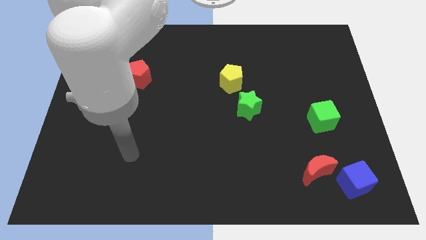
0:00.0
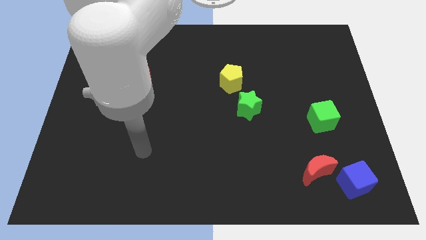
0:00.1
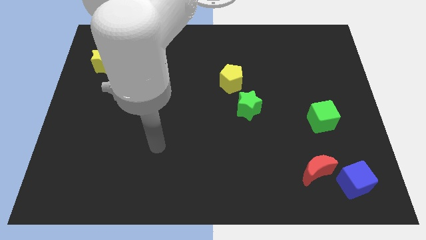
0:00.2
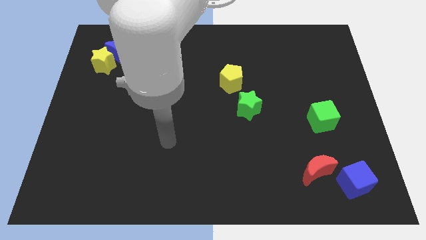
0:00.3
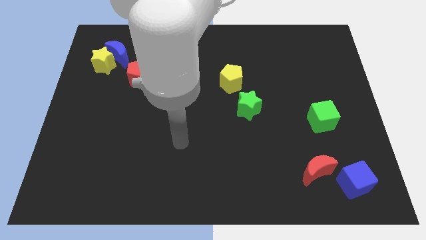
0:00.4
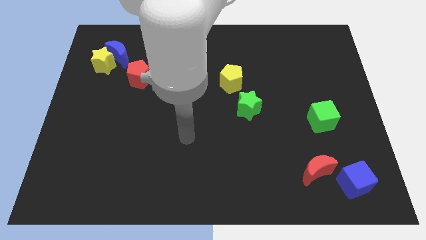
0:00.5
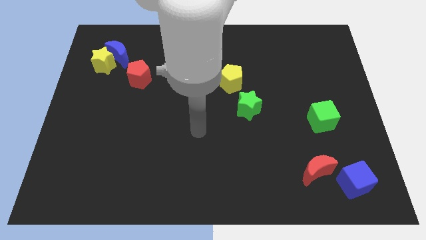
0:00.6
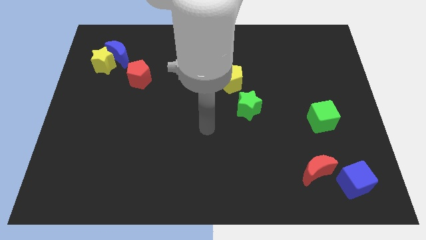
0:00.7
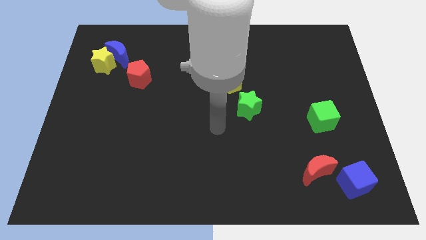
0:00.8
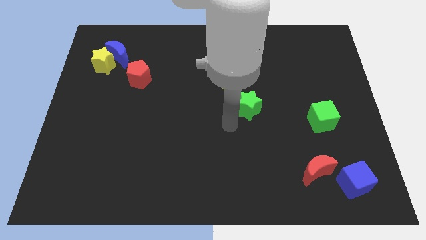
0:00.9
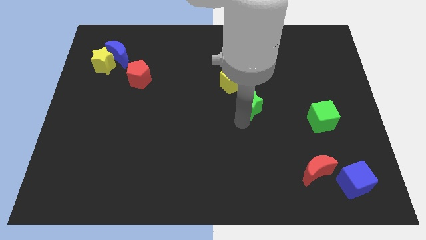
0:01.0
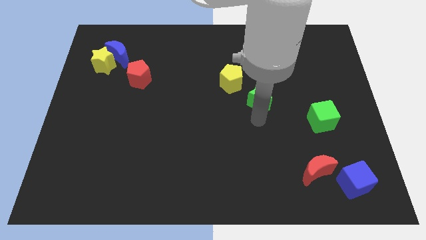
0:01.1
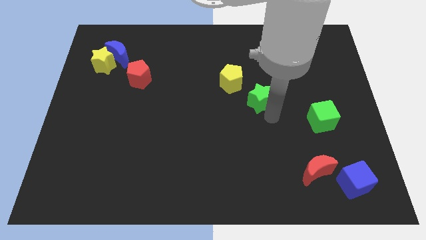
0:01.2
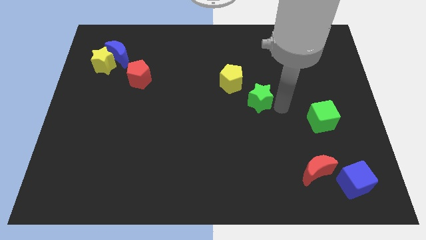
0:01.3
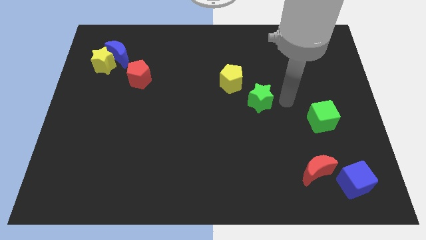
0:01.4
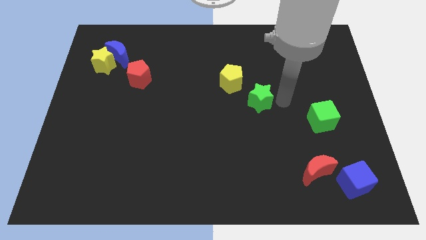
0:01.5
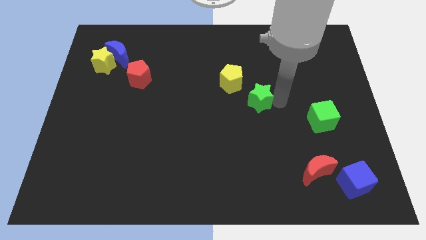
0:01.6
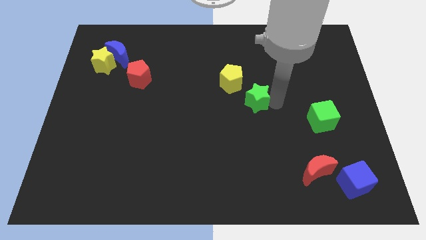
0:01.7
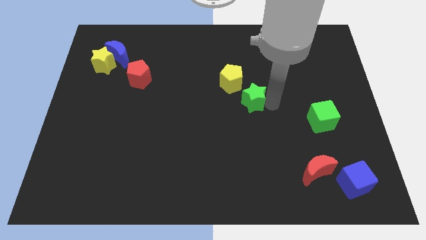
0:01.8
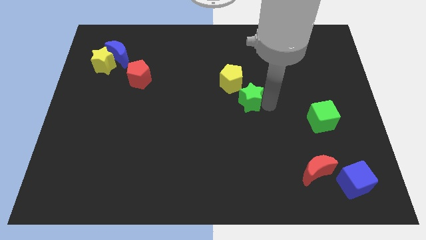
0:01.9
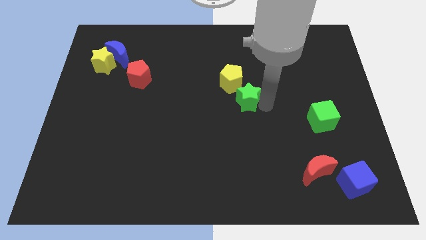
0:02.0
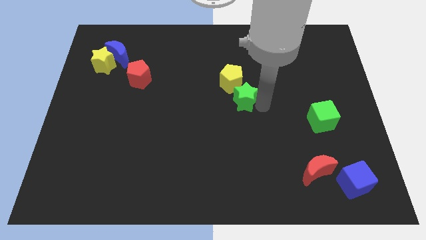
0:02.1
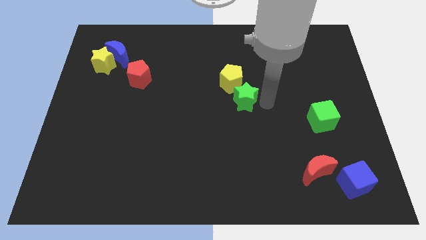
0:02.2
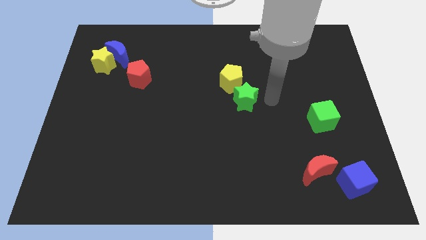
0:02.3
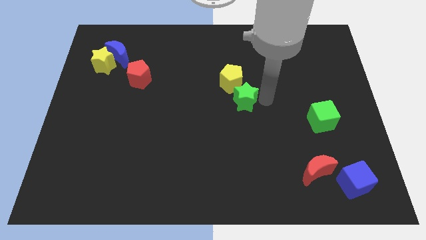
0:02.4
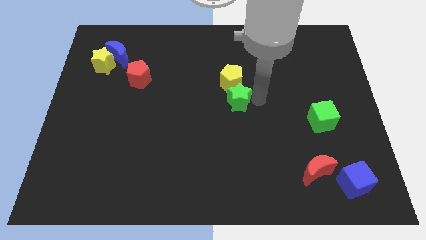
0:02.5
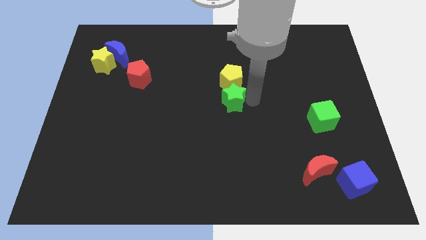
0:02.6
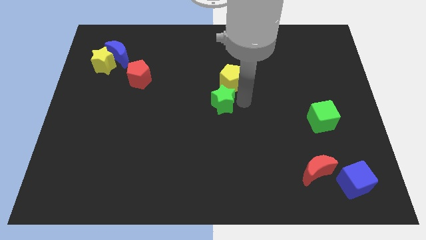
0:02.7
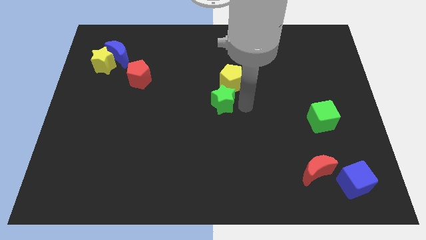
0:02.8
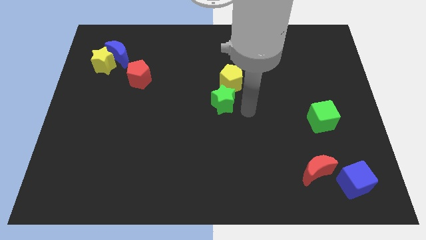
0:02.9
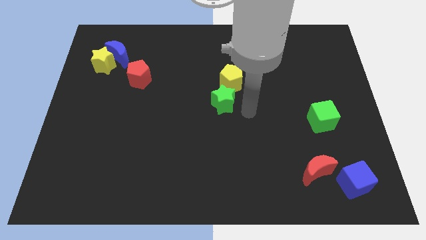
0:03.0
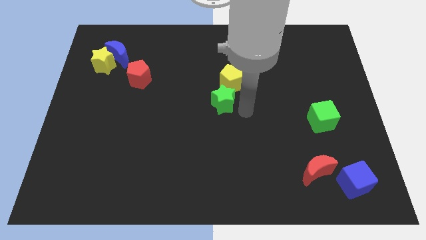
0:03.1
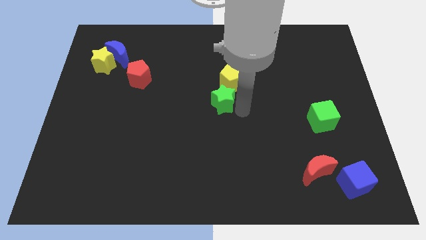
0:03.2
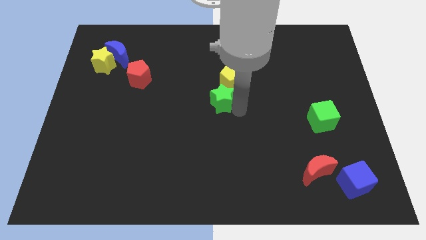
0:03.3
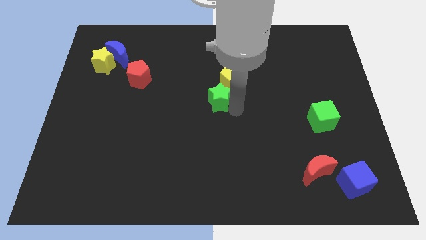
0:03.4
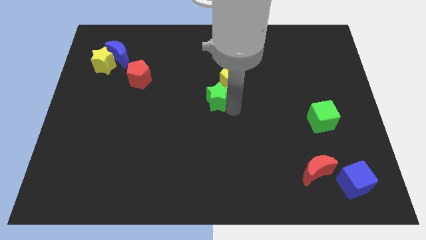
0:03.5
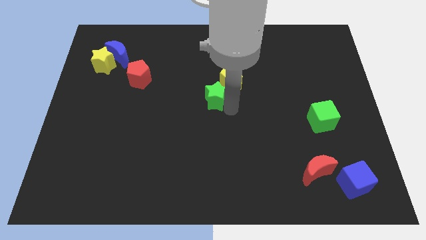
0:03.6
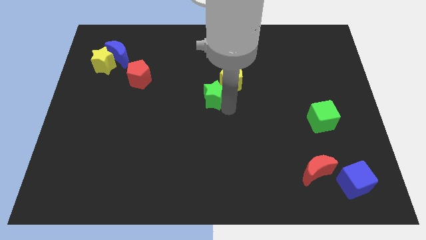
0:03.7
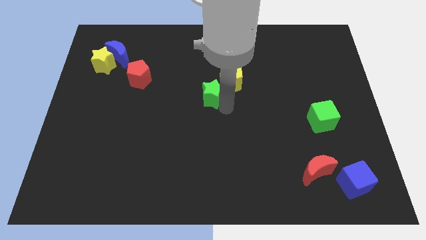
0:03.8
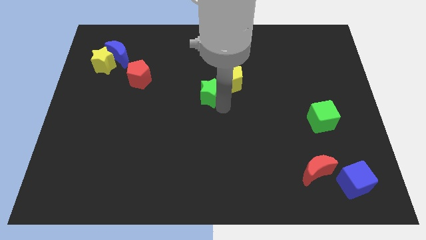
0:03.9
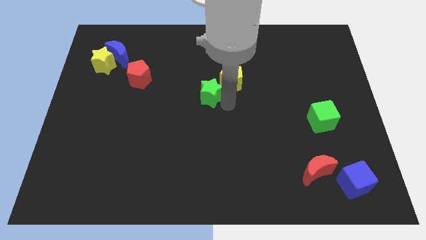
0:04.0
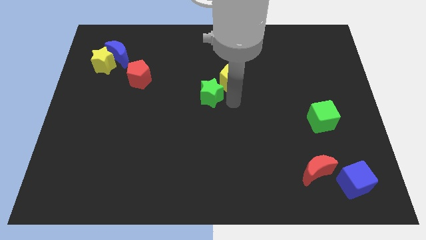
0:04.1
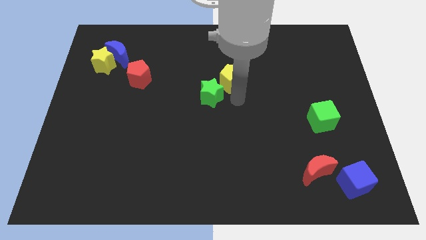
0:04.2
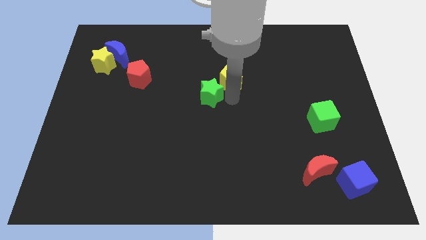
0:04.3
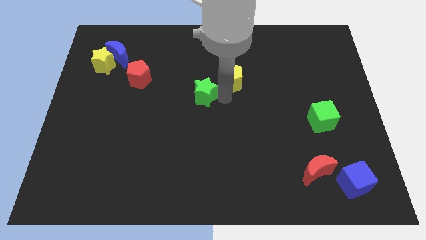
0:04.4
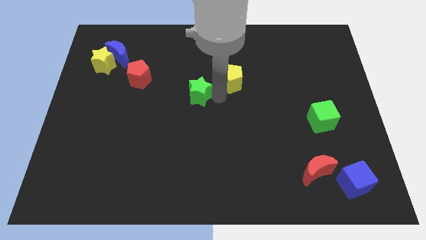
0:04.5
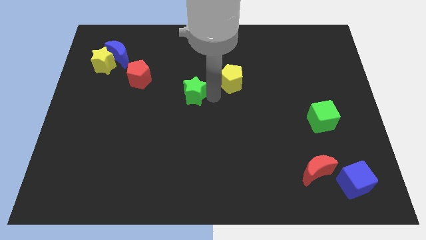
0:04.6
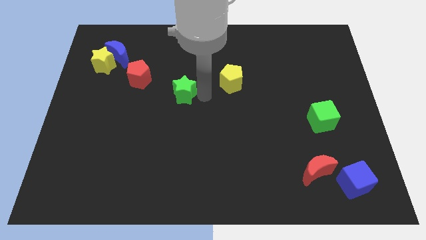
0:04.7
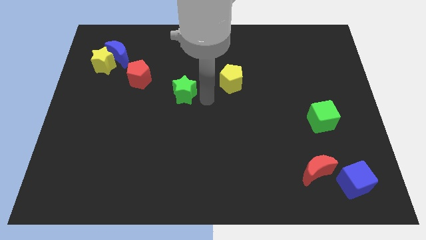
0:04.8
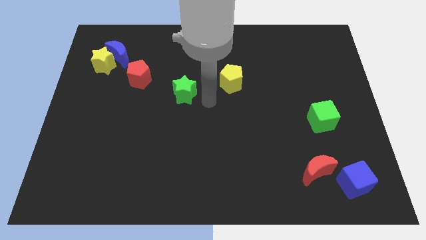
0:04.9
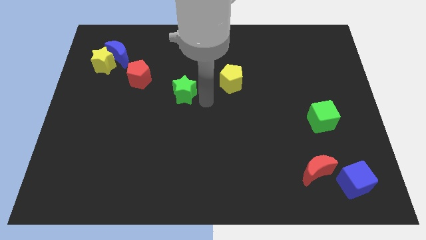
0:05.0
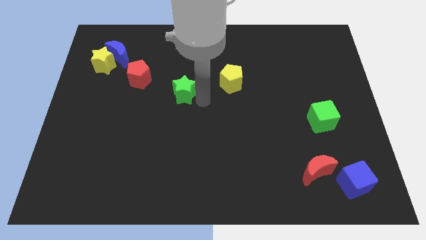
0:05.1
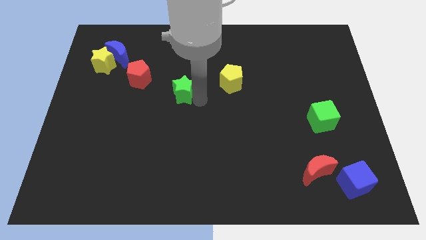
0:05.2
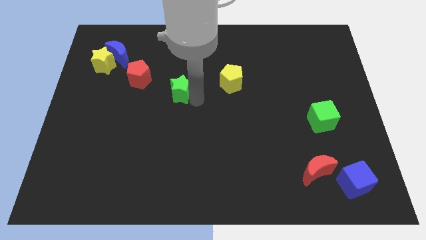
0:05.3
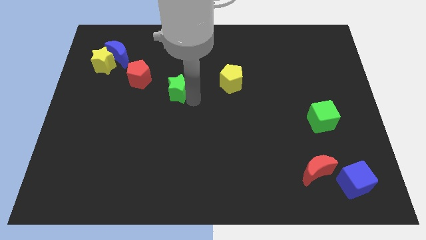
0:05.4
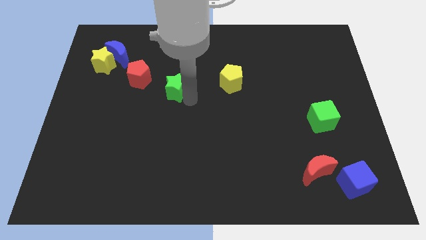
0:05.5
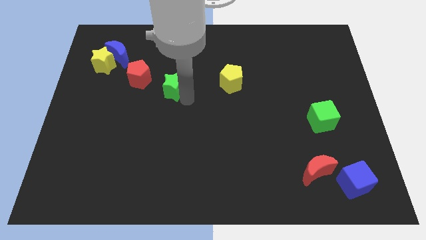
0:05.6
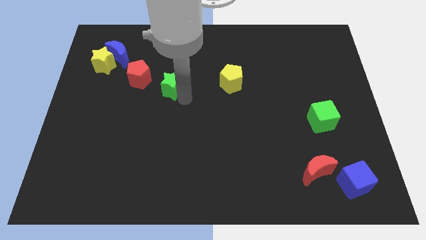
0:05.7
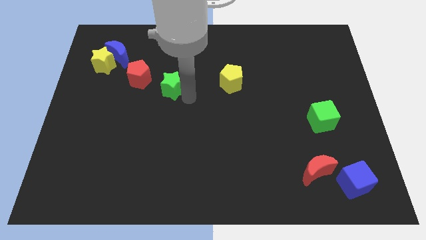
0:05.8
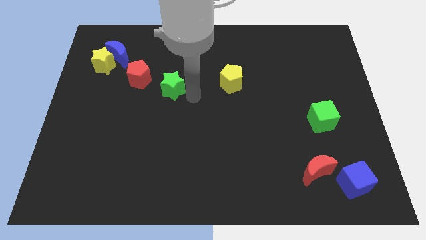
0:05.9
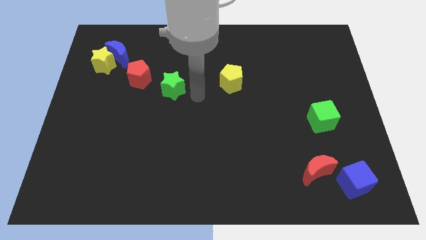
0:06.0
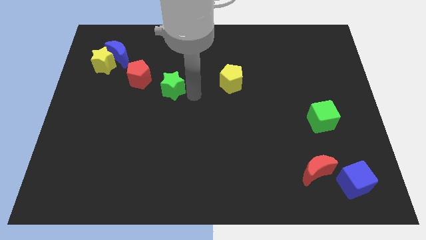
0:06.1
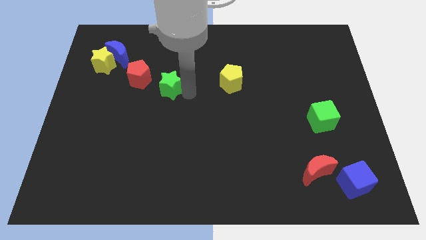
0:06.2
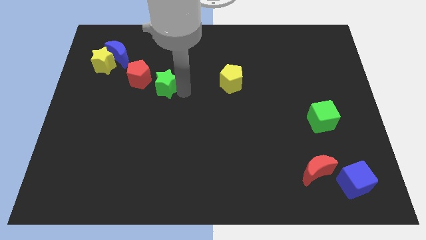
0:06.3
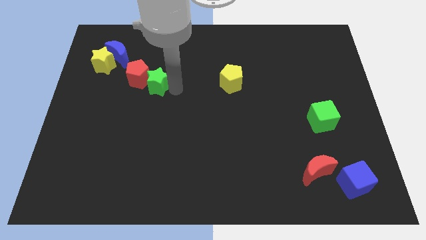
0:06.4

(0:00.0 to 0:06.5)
move the green star close to the red pentagon

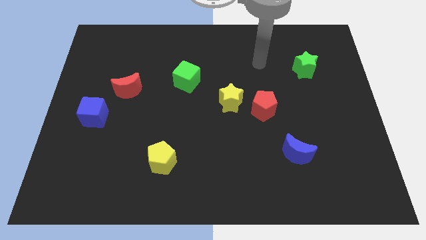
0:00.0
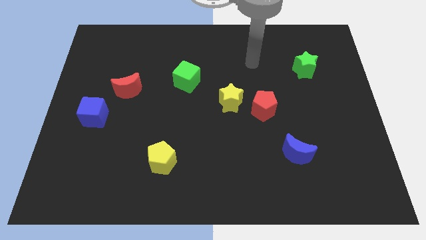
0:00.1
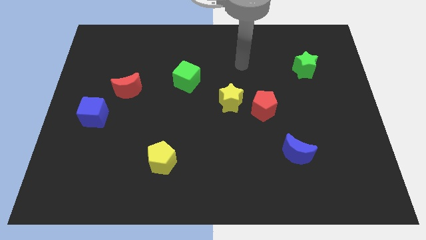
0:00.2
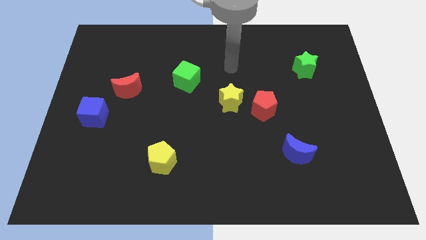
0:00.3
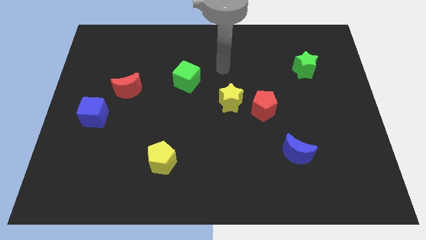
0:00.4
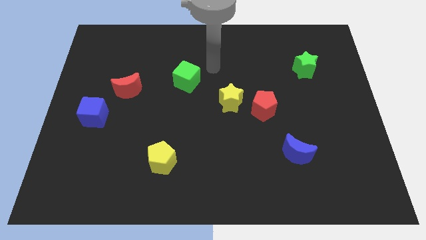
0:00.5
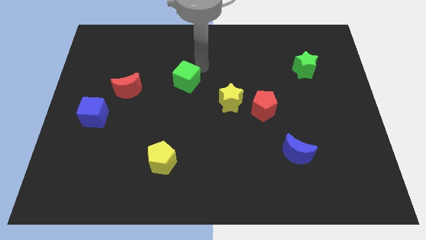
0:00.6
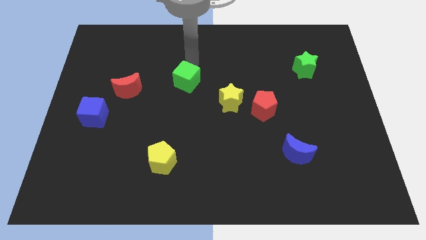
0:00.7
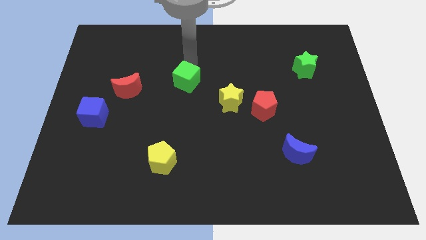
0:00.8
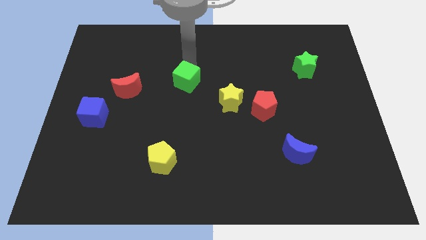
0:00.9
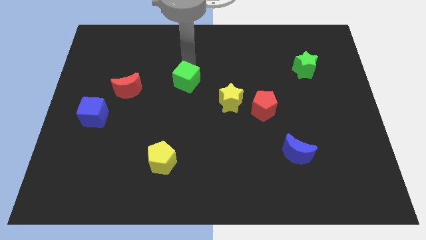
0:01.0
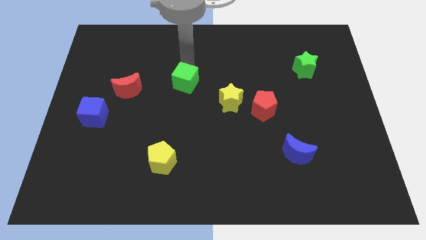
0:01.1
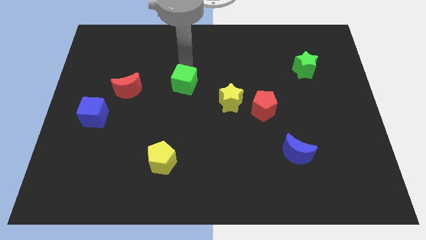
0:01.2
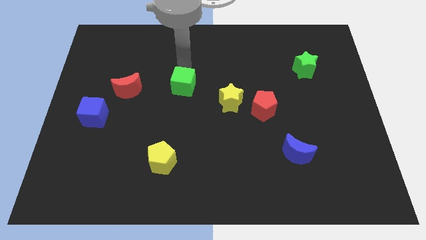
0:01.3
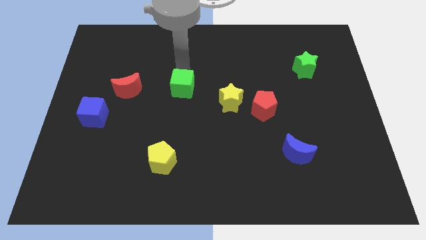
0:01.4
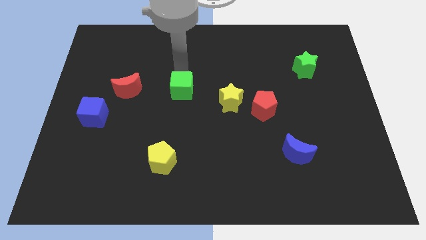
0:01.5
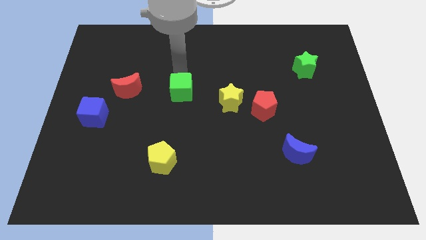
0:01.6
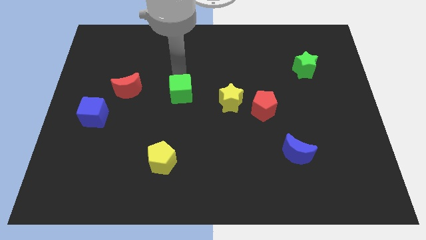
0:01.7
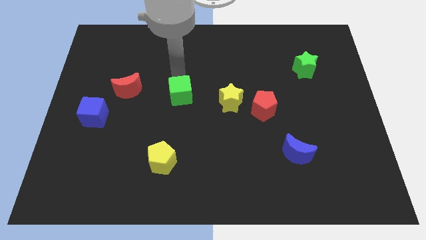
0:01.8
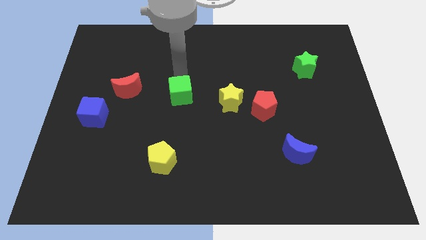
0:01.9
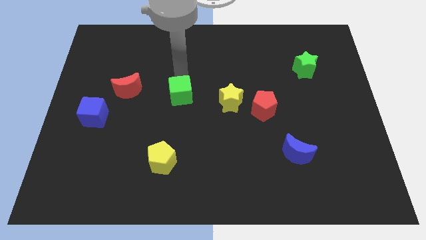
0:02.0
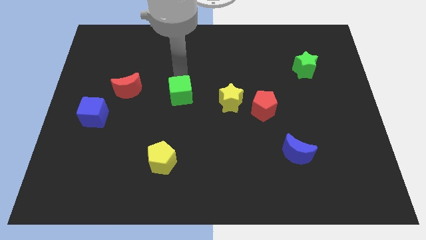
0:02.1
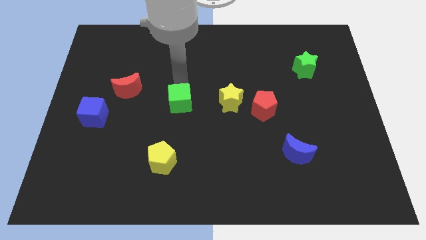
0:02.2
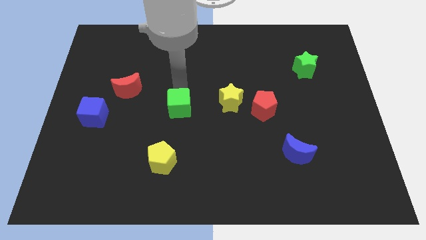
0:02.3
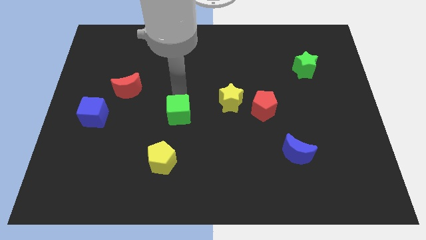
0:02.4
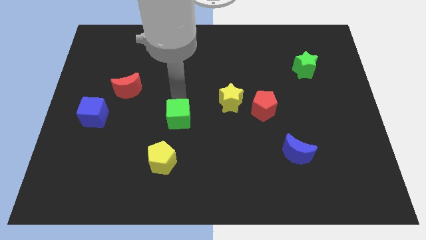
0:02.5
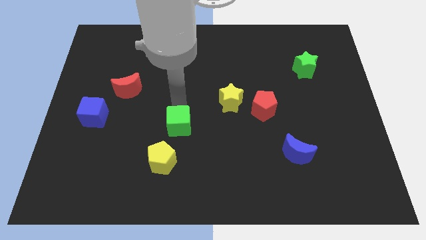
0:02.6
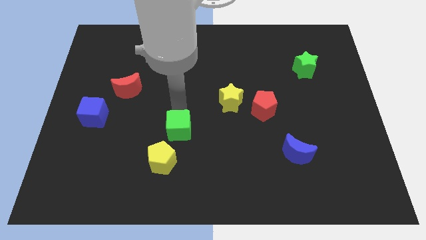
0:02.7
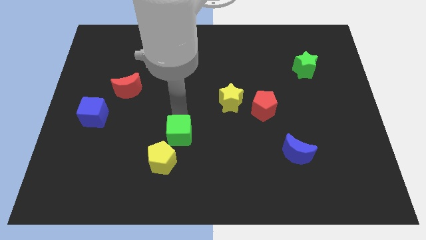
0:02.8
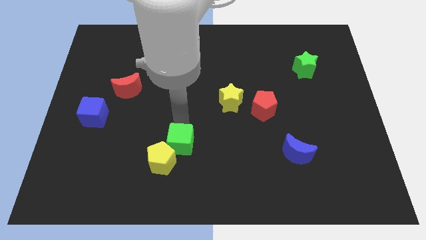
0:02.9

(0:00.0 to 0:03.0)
slide the green cube next to the yellow pentagon
